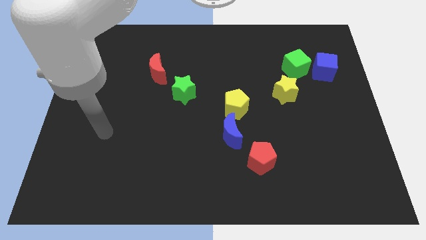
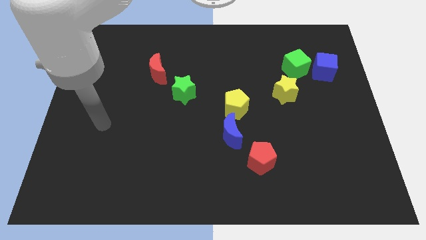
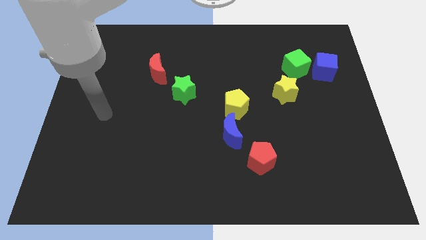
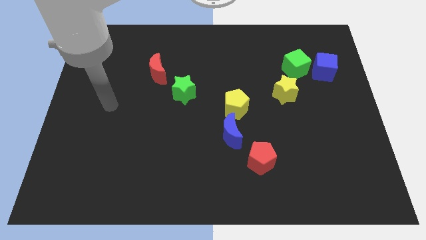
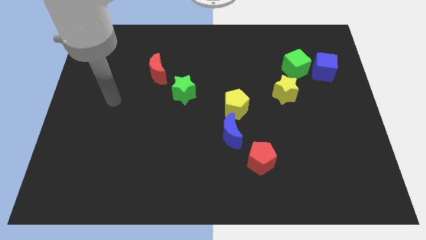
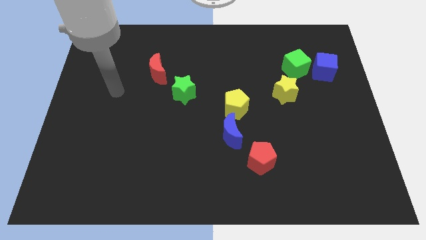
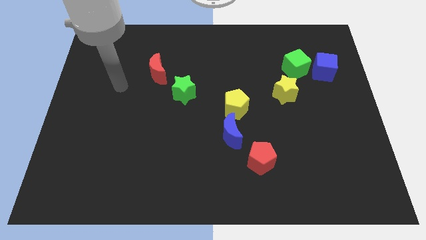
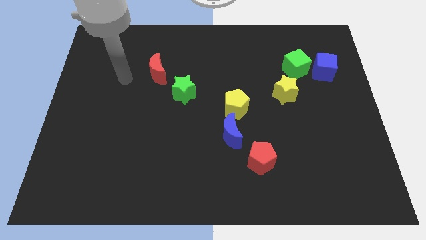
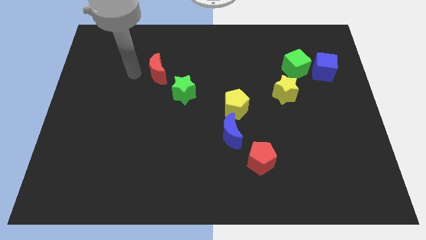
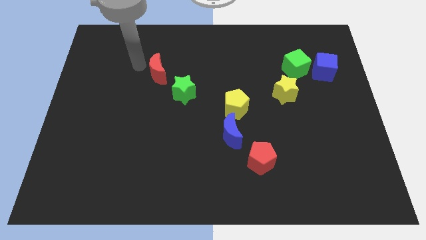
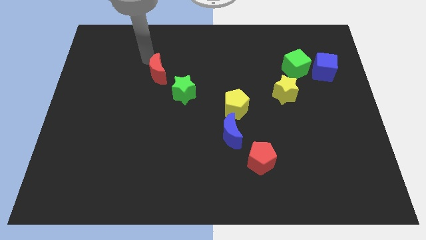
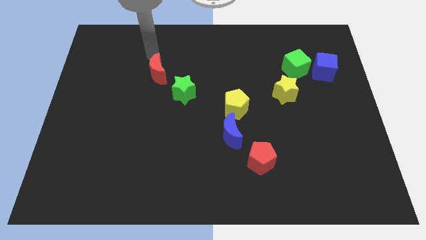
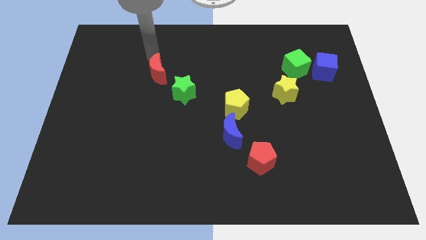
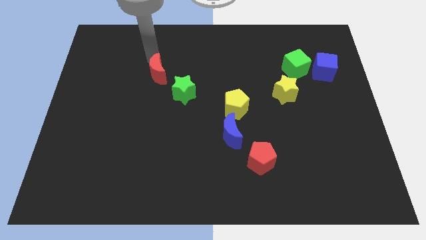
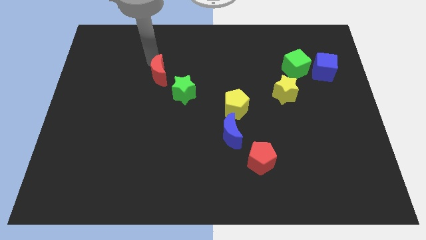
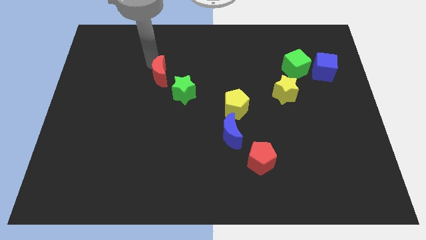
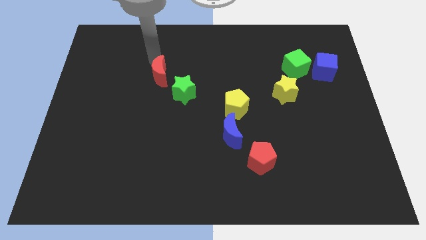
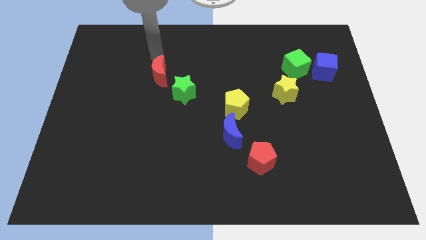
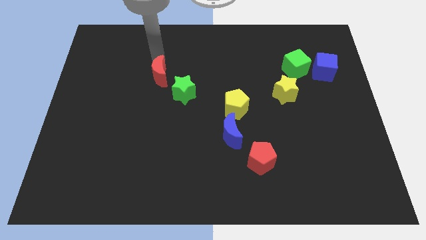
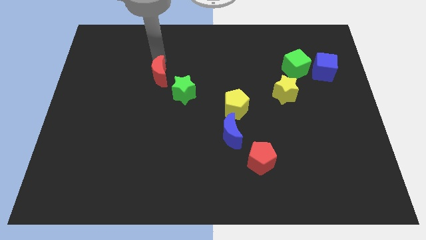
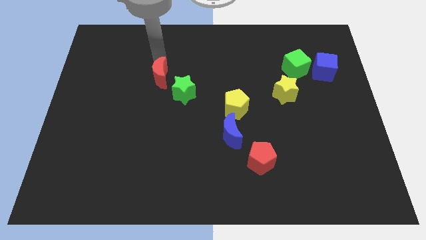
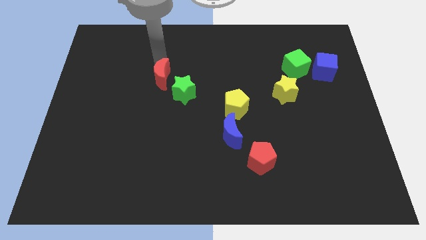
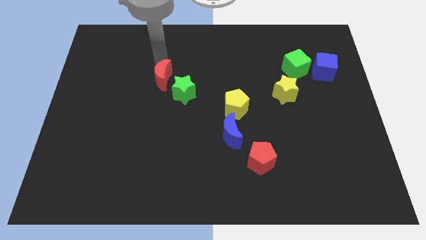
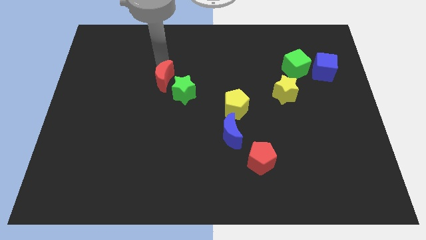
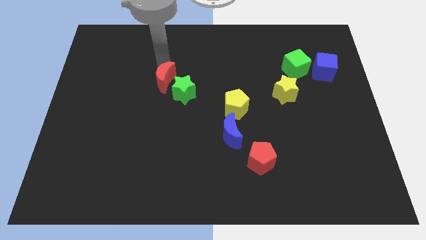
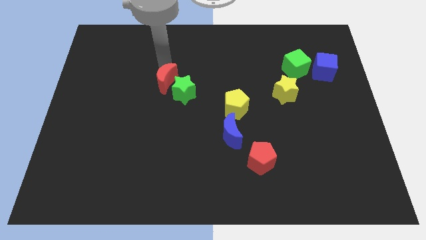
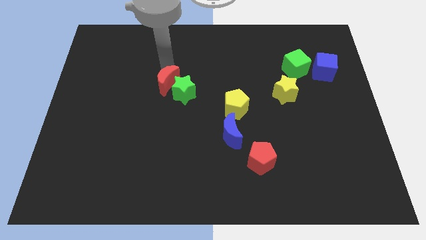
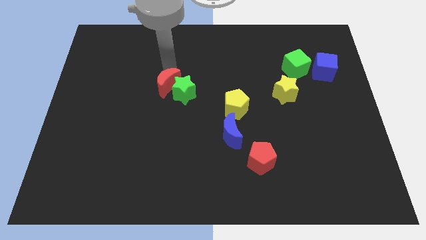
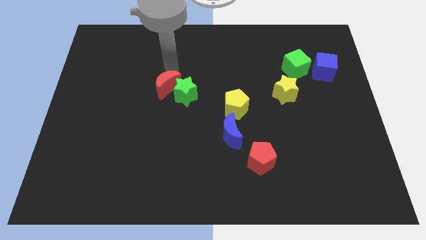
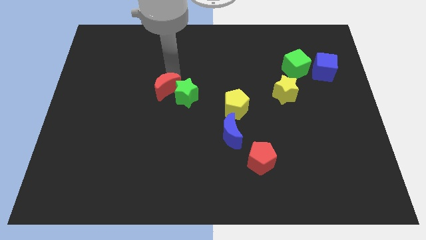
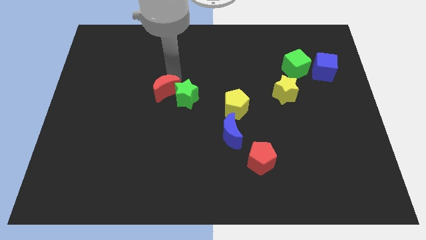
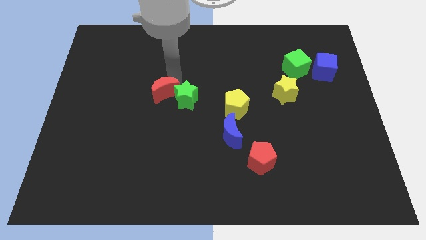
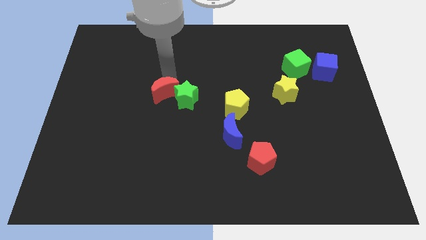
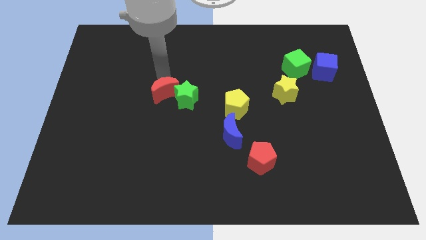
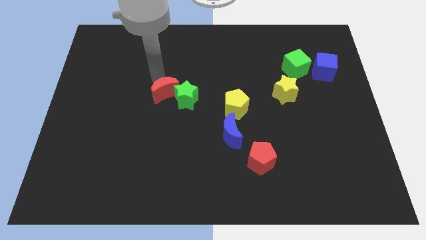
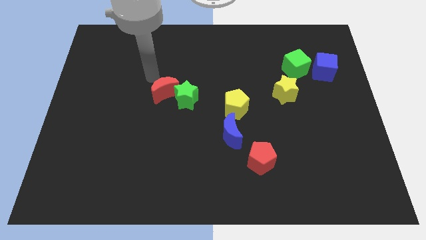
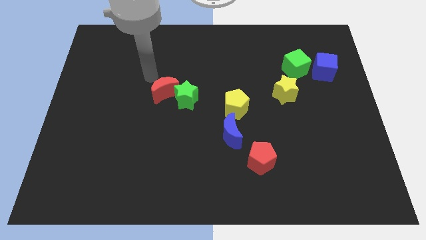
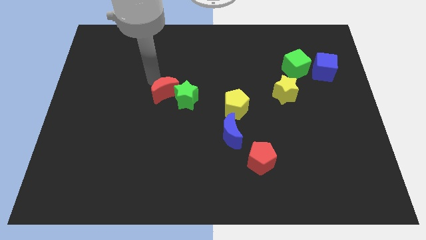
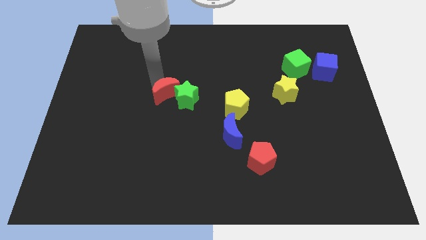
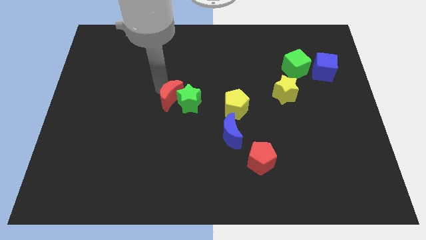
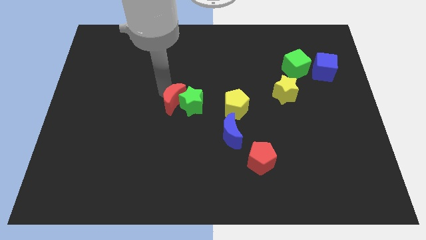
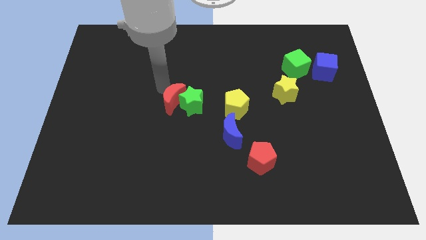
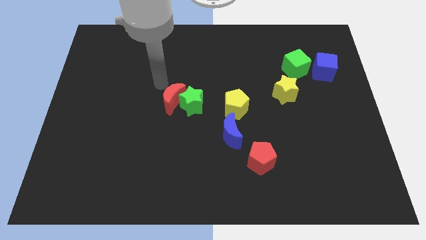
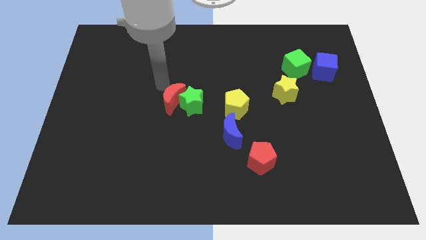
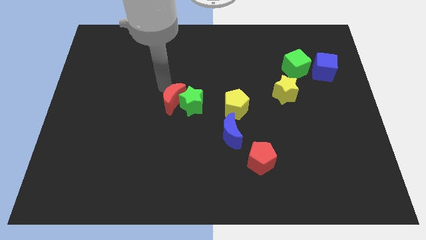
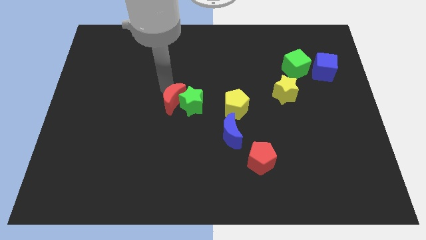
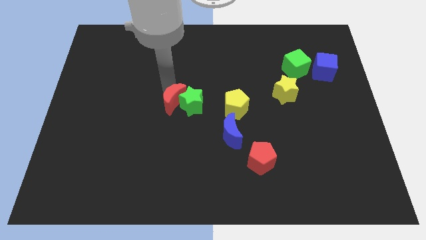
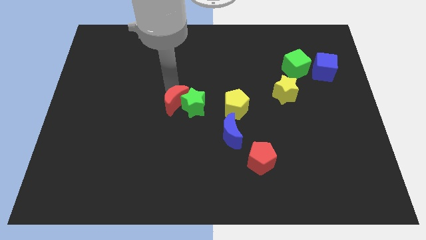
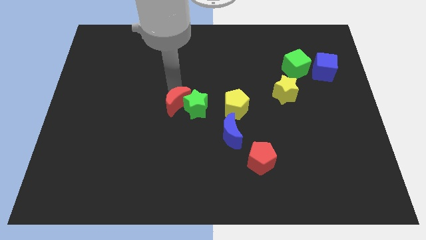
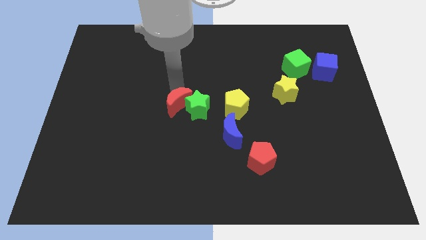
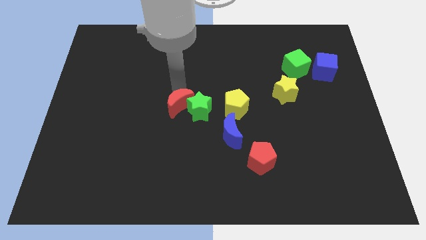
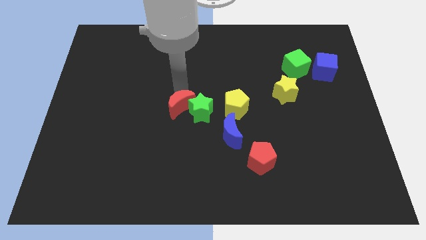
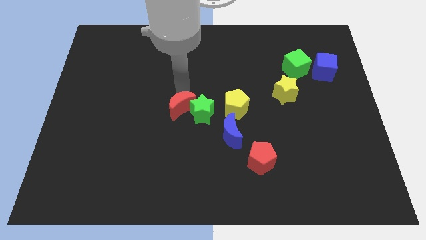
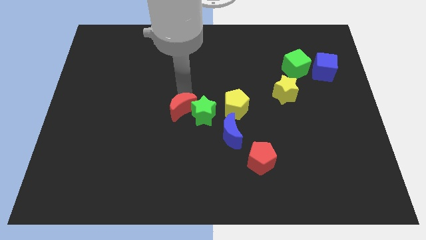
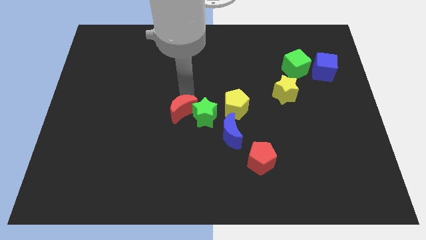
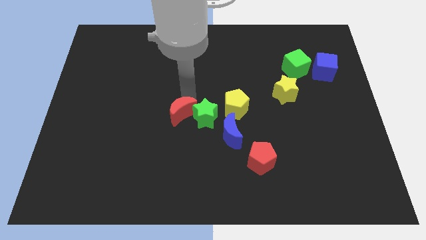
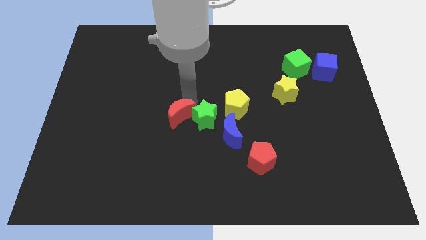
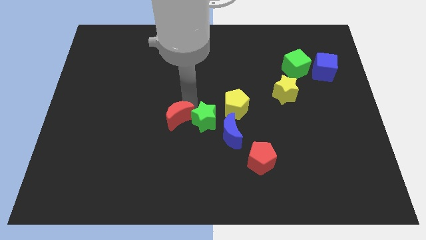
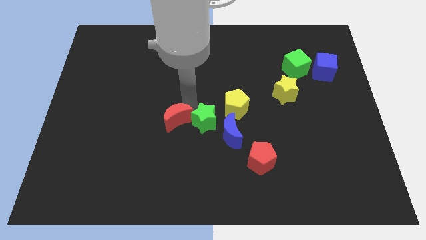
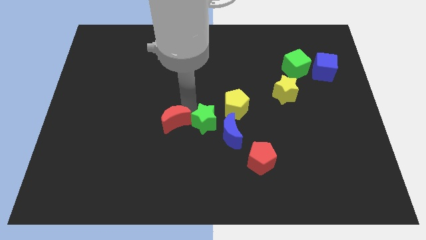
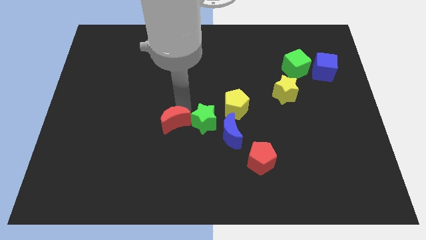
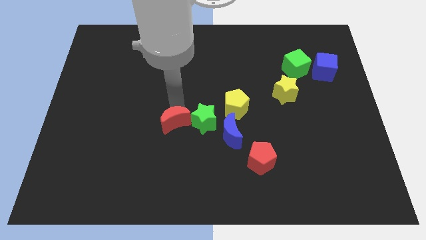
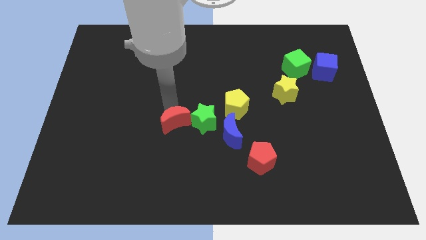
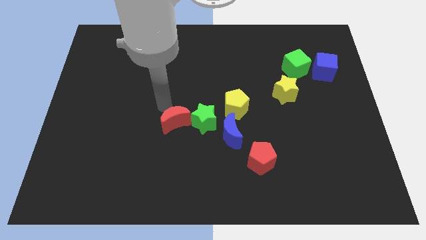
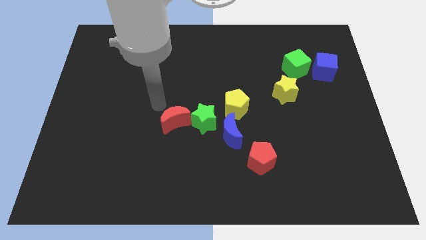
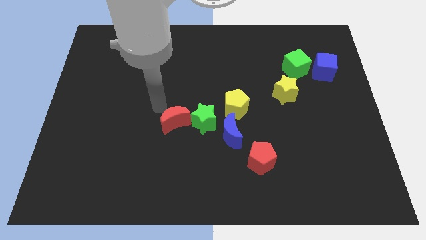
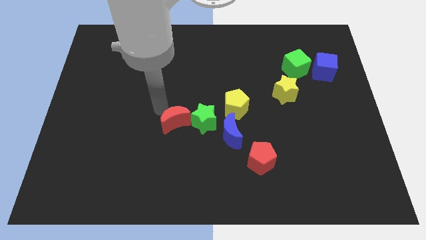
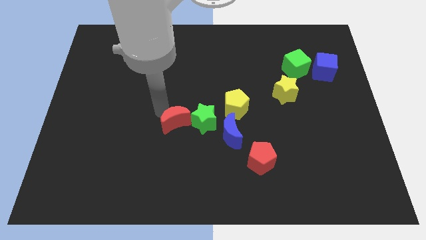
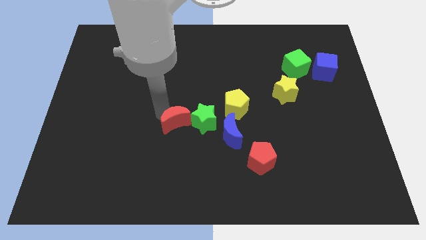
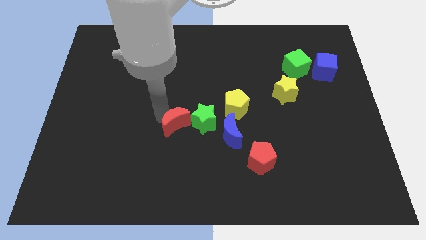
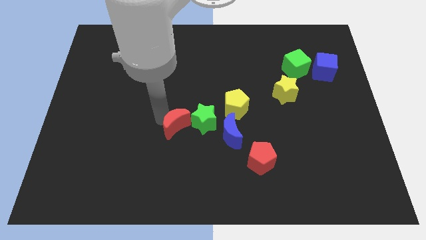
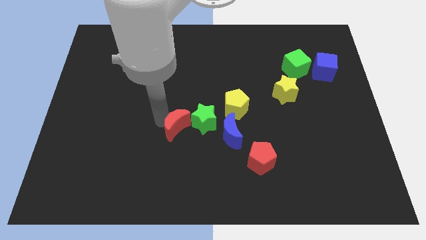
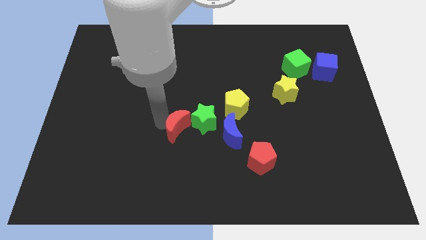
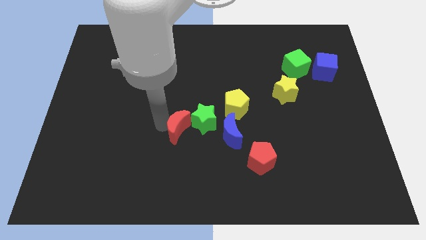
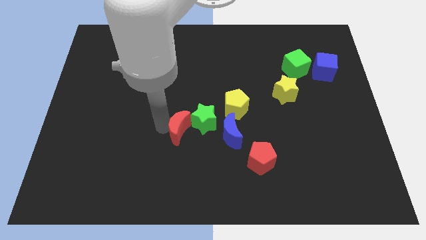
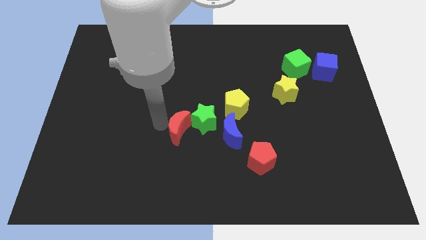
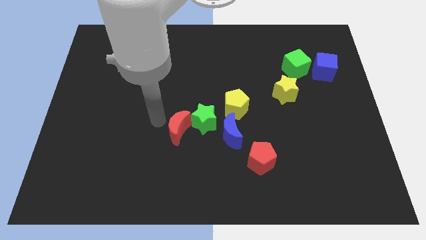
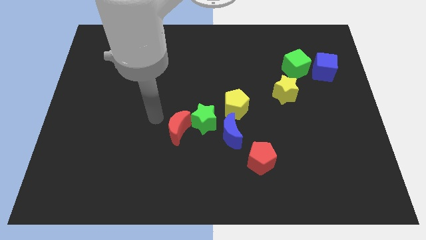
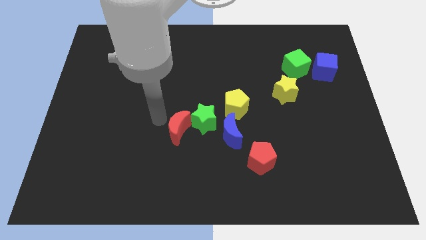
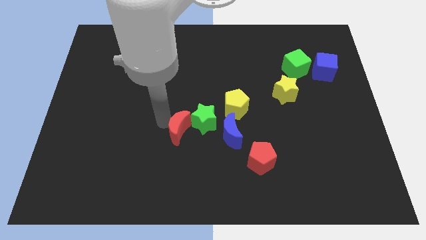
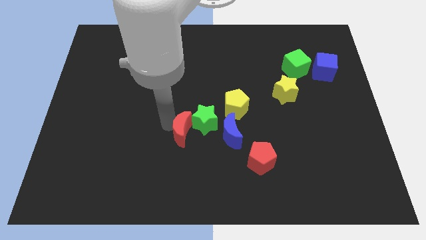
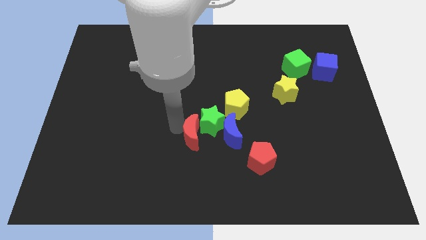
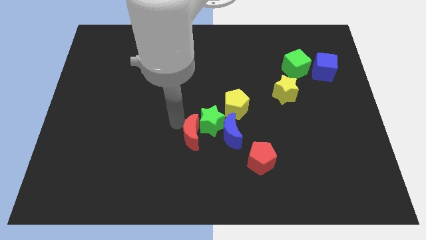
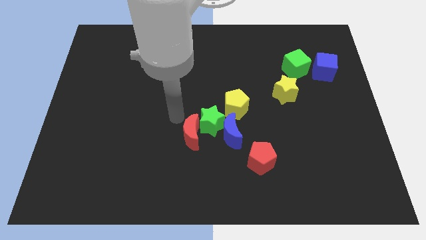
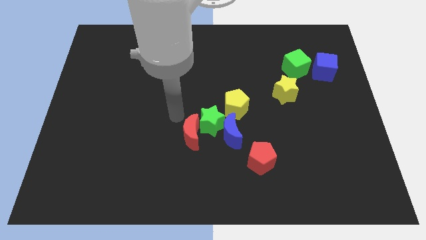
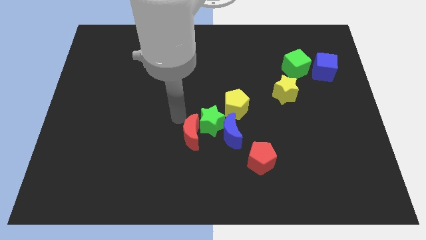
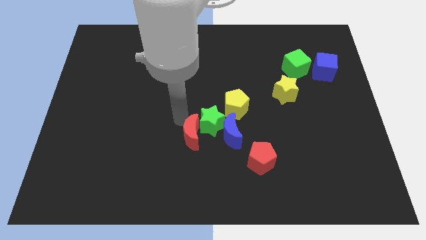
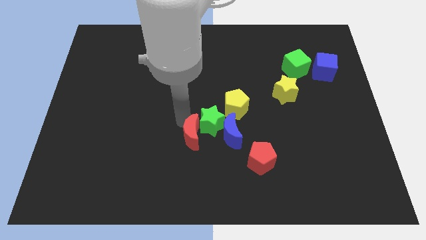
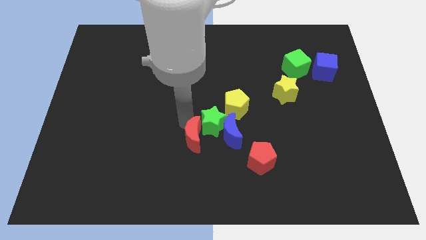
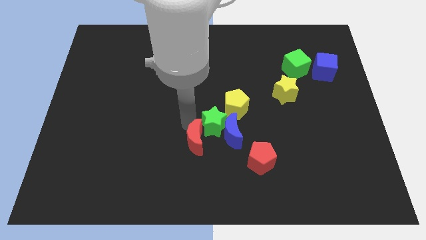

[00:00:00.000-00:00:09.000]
move the red moon to the bottom left of the blue moon
